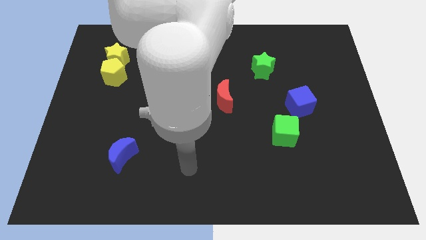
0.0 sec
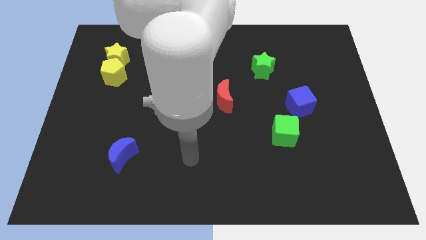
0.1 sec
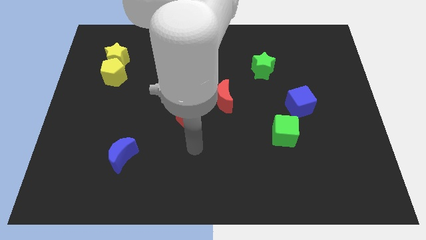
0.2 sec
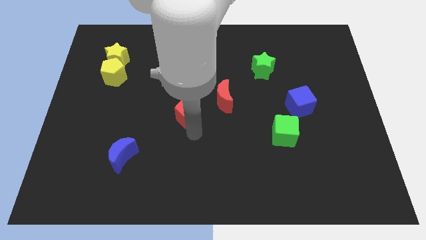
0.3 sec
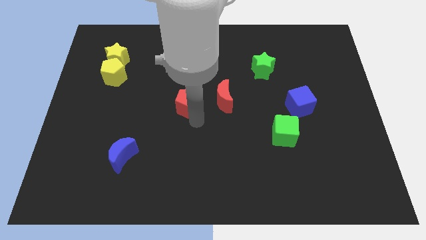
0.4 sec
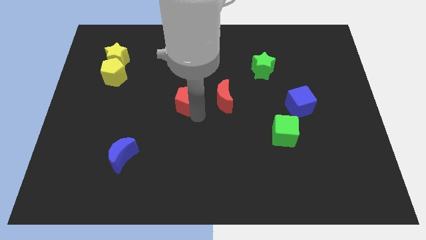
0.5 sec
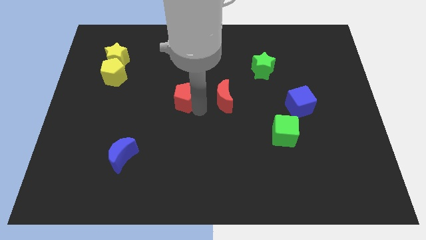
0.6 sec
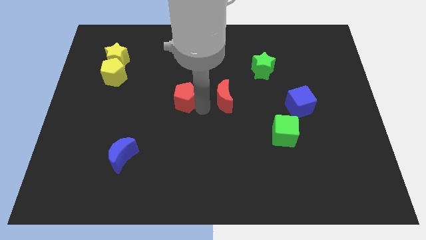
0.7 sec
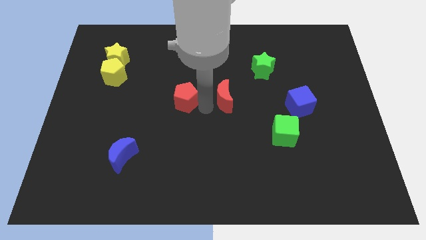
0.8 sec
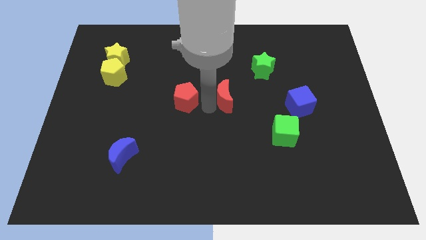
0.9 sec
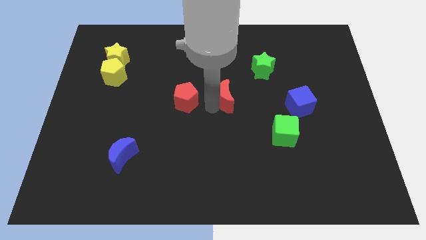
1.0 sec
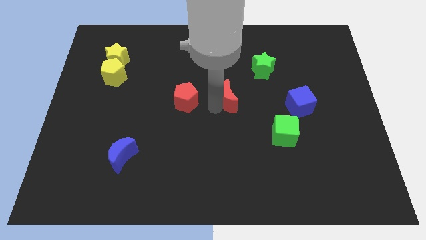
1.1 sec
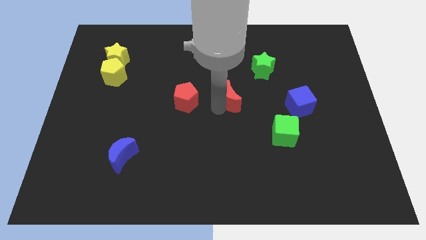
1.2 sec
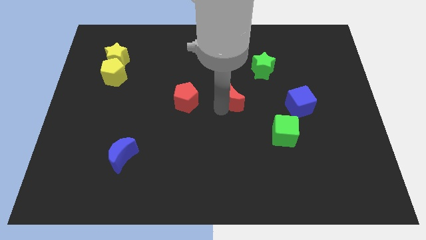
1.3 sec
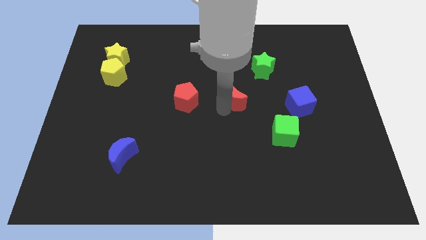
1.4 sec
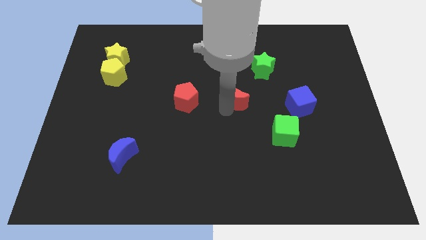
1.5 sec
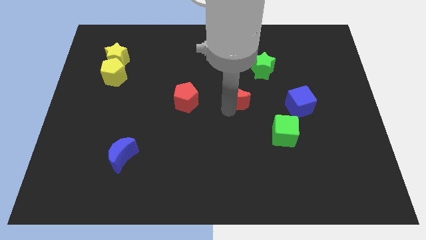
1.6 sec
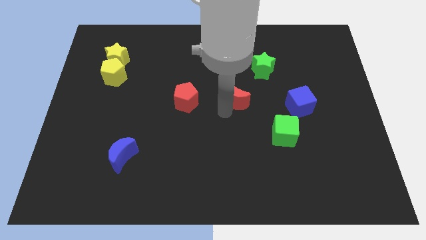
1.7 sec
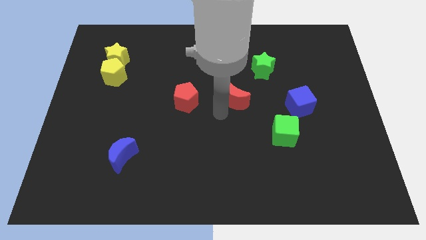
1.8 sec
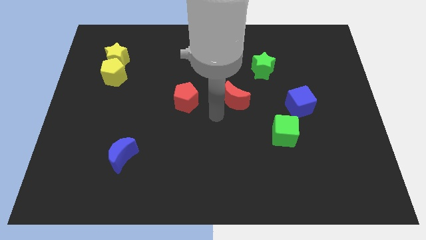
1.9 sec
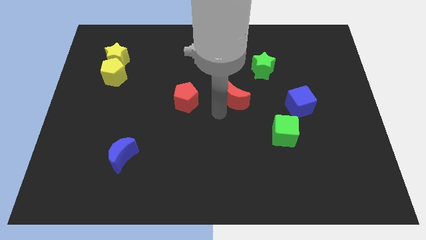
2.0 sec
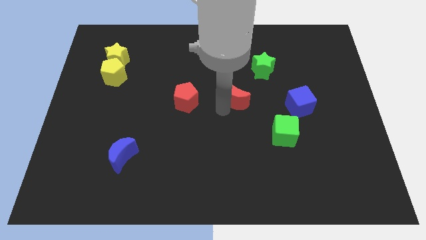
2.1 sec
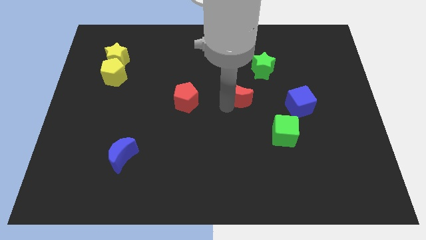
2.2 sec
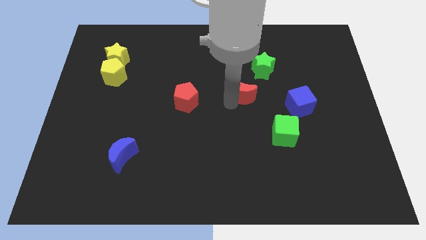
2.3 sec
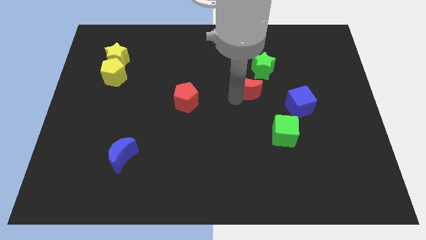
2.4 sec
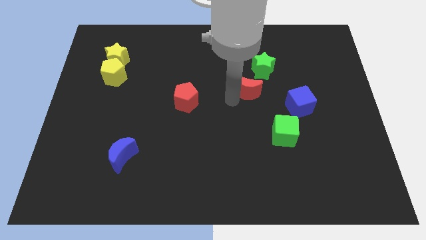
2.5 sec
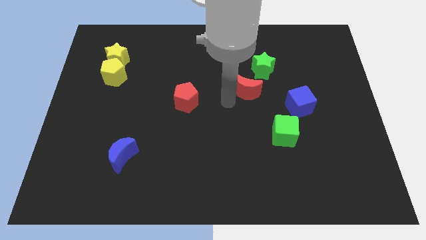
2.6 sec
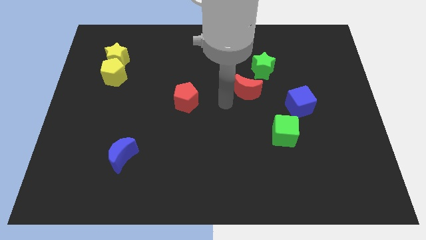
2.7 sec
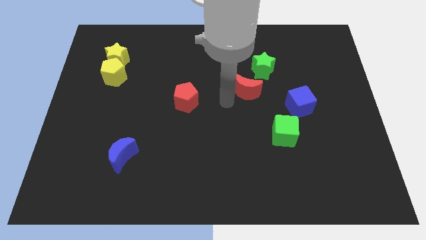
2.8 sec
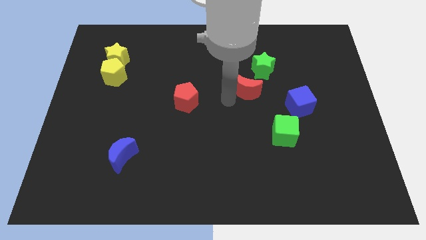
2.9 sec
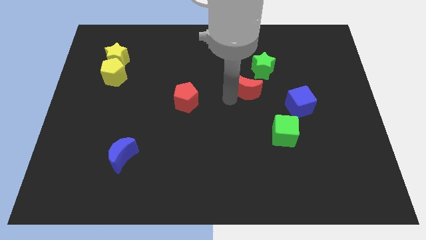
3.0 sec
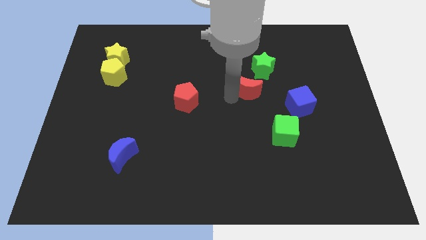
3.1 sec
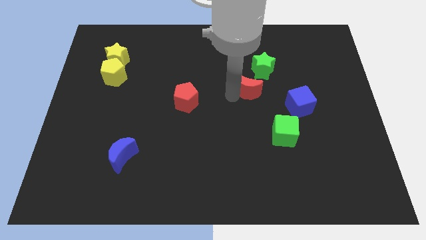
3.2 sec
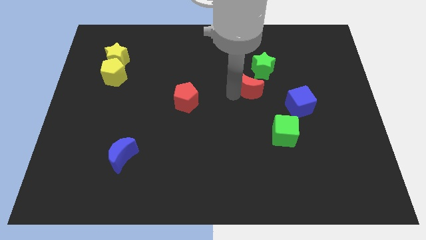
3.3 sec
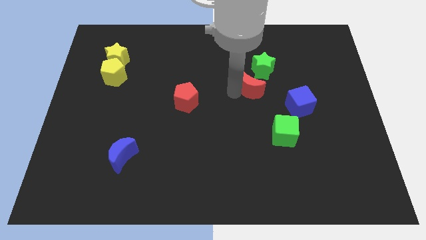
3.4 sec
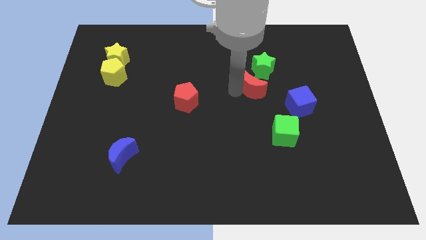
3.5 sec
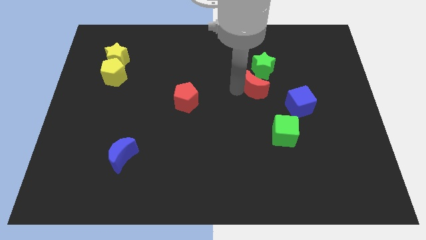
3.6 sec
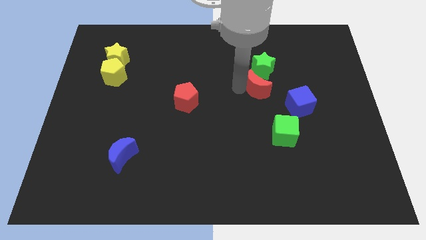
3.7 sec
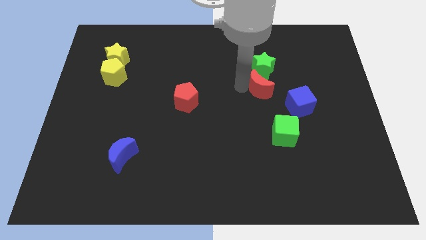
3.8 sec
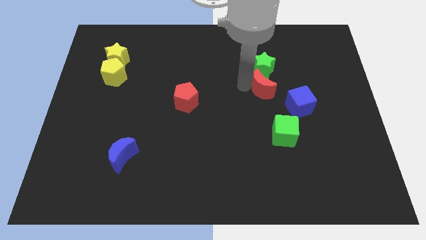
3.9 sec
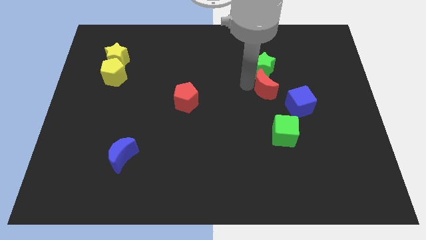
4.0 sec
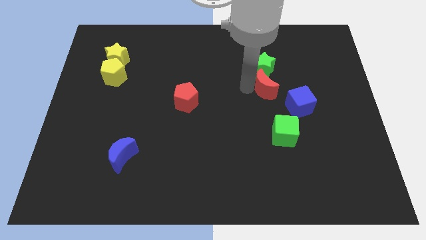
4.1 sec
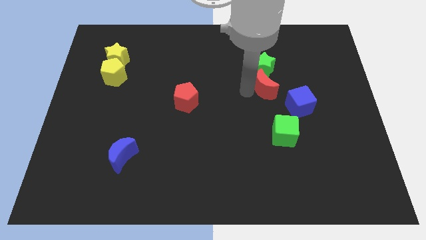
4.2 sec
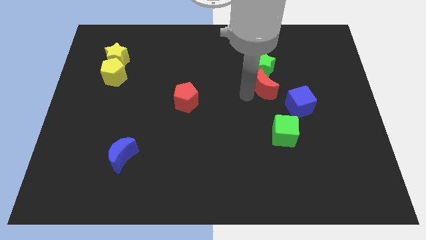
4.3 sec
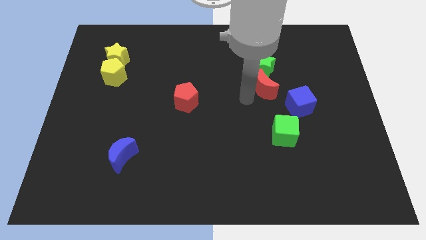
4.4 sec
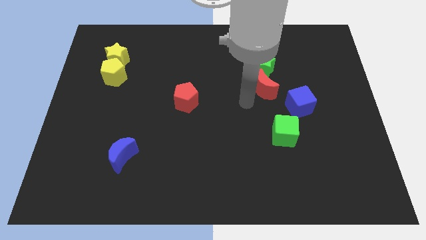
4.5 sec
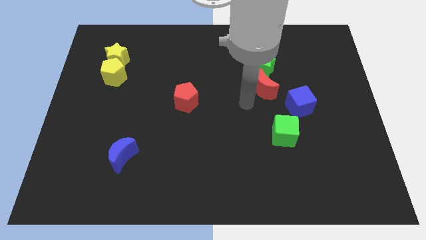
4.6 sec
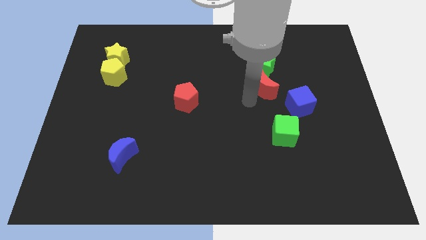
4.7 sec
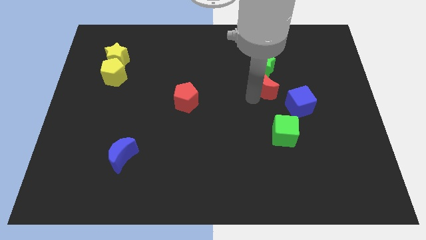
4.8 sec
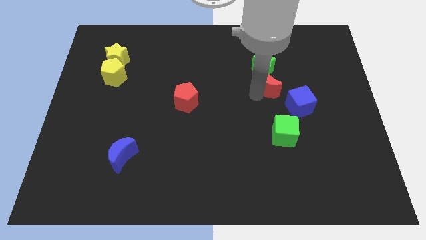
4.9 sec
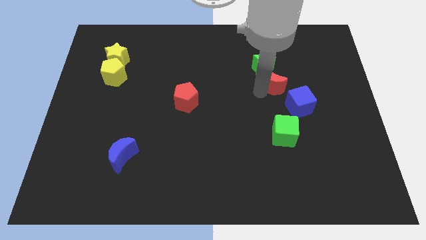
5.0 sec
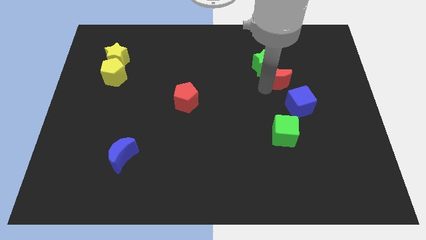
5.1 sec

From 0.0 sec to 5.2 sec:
push the red moon to the top side of the blue cube

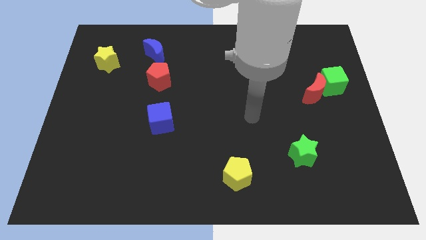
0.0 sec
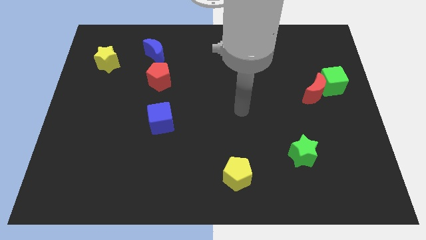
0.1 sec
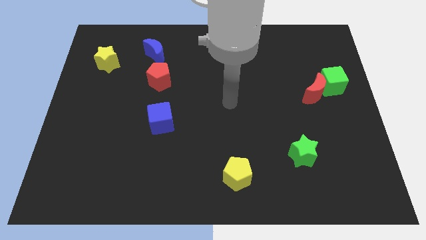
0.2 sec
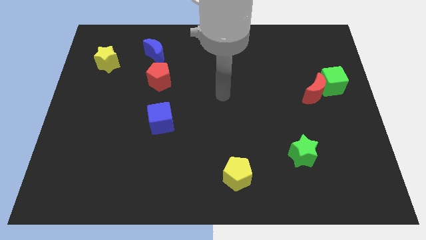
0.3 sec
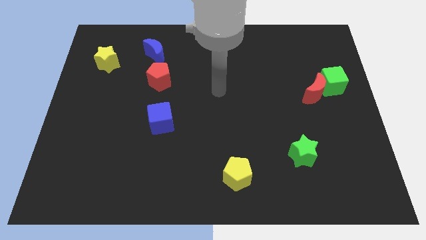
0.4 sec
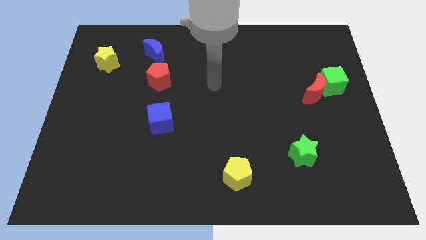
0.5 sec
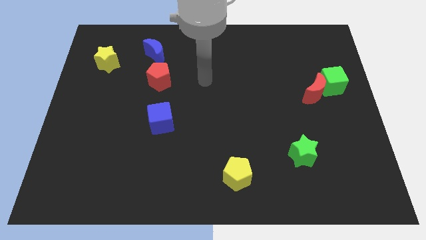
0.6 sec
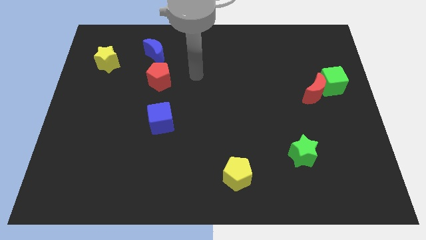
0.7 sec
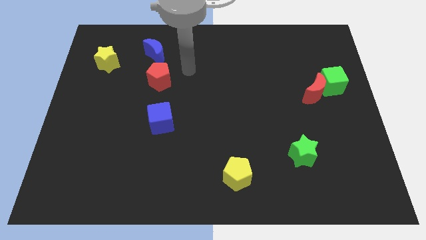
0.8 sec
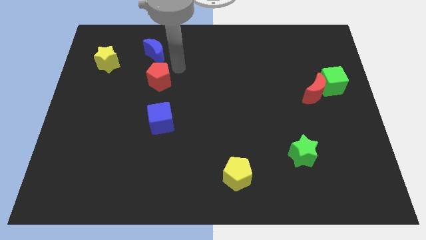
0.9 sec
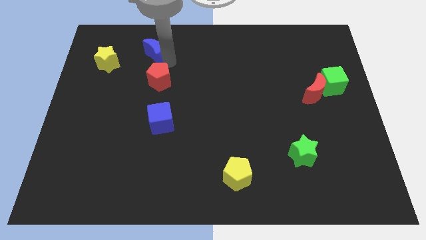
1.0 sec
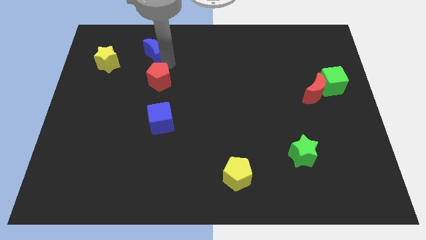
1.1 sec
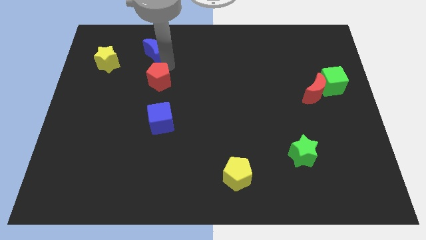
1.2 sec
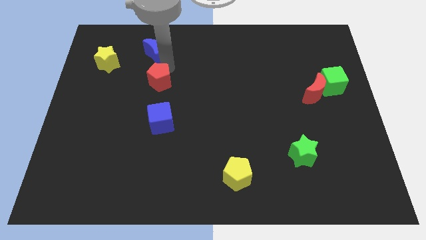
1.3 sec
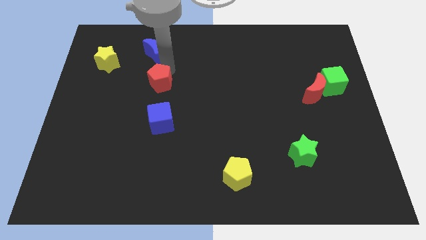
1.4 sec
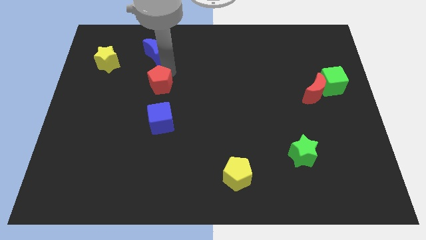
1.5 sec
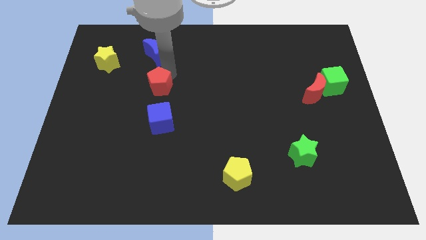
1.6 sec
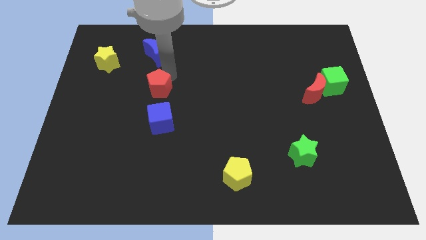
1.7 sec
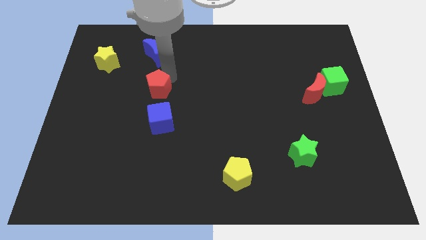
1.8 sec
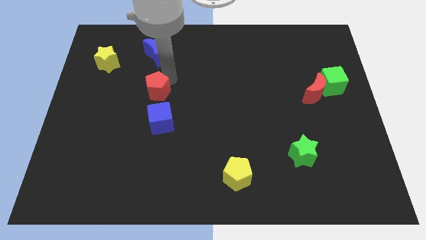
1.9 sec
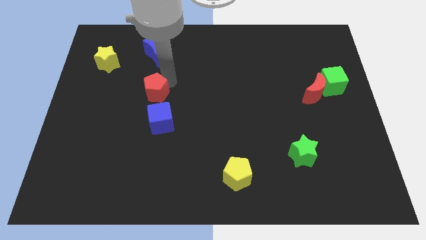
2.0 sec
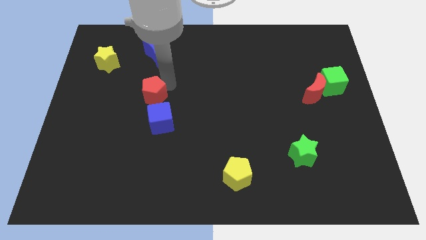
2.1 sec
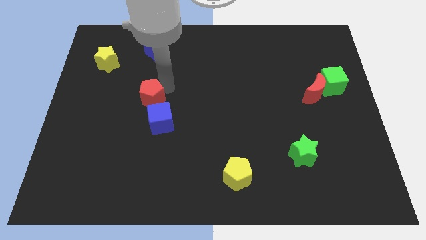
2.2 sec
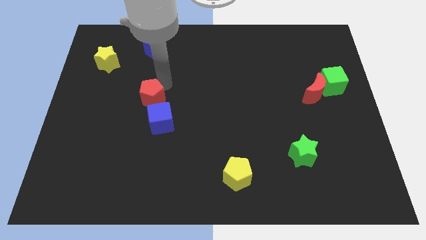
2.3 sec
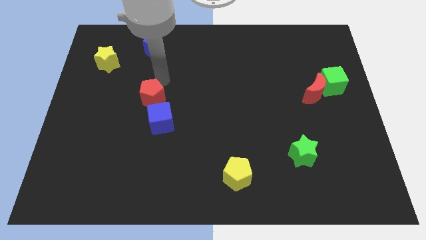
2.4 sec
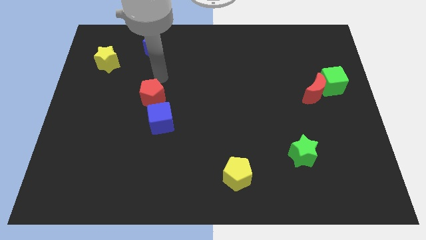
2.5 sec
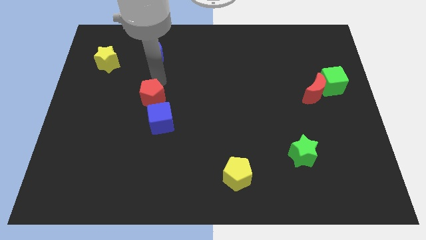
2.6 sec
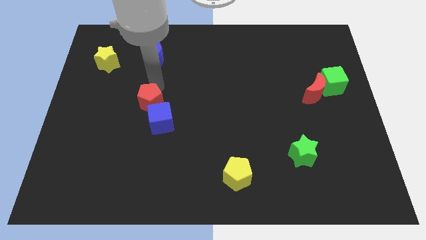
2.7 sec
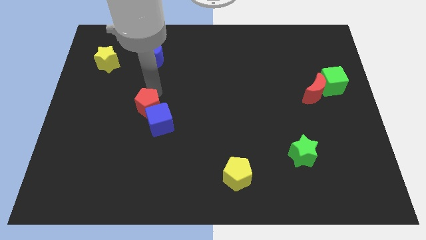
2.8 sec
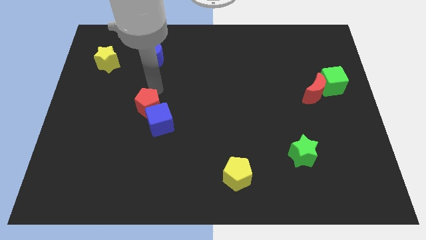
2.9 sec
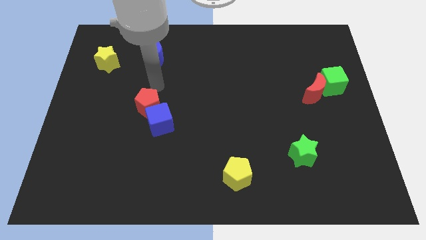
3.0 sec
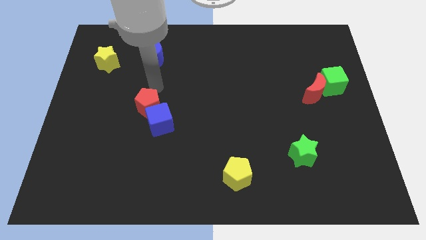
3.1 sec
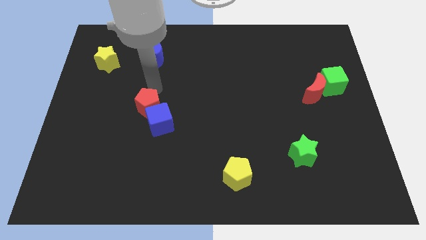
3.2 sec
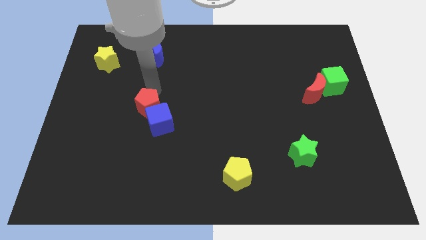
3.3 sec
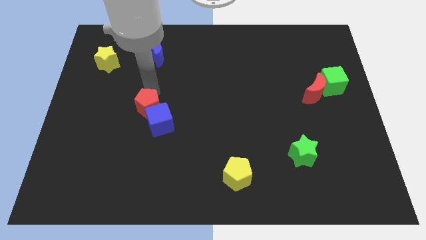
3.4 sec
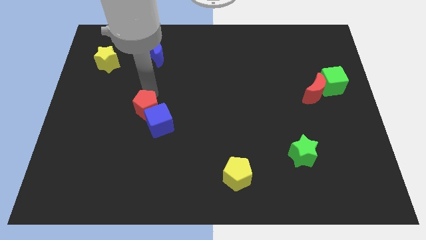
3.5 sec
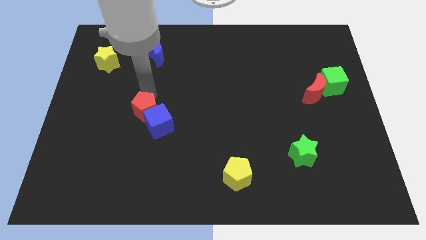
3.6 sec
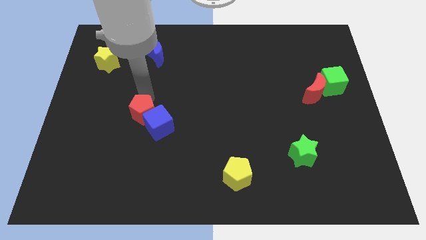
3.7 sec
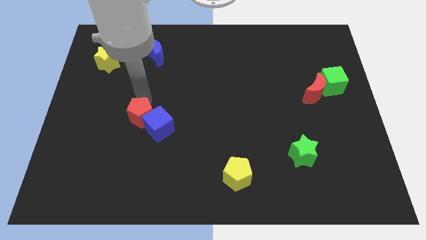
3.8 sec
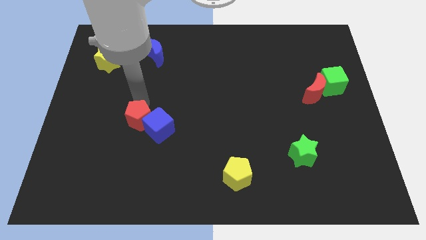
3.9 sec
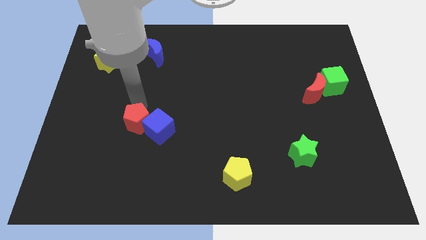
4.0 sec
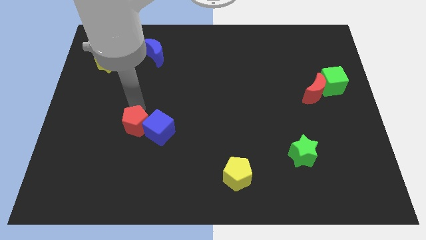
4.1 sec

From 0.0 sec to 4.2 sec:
slide the red pentagon diagonally down and to the left of the blue cube
